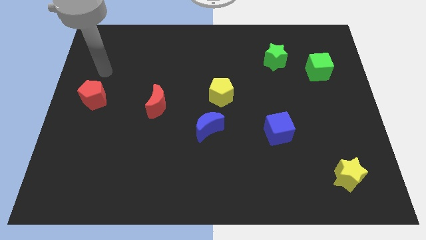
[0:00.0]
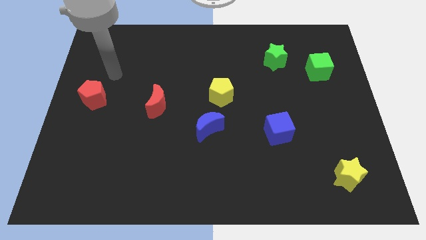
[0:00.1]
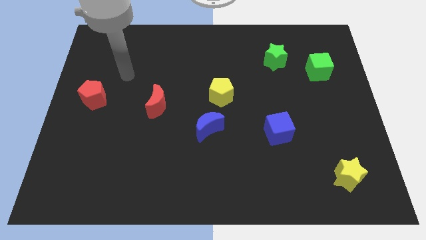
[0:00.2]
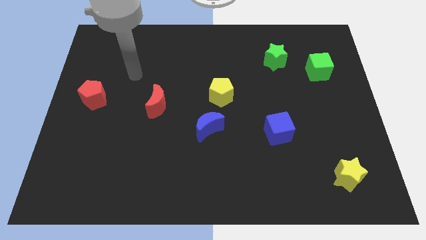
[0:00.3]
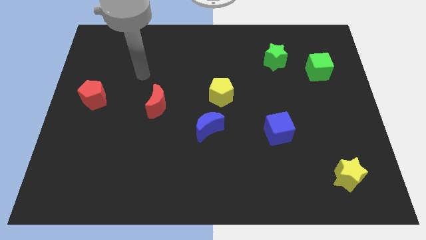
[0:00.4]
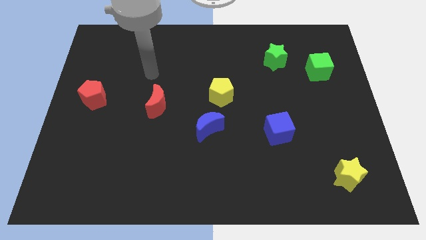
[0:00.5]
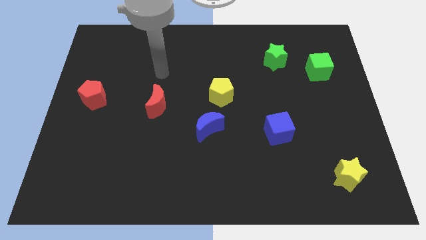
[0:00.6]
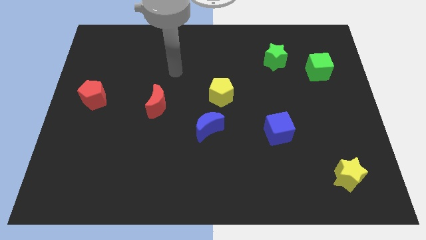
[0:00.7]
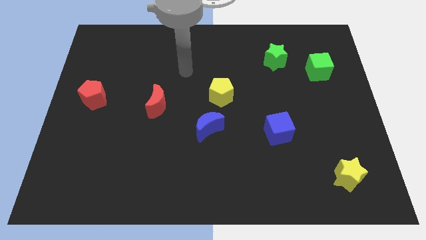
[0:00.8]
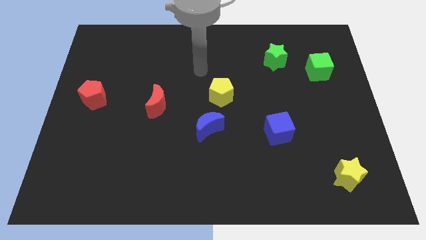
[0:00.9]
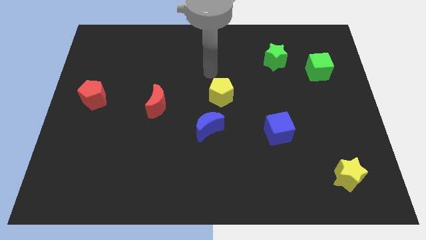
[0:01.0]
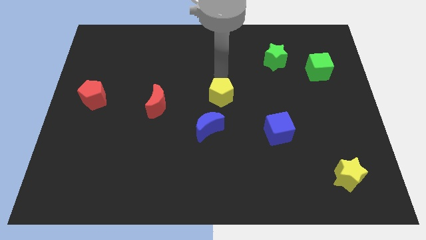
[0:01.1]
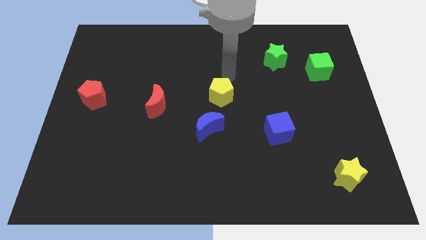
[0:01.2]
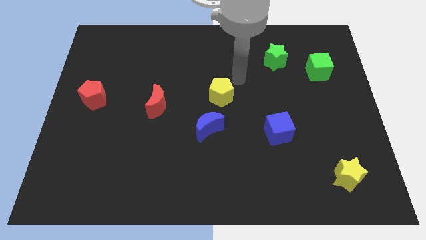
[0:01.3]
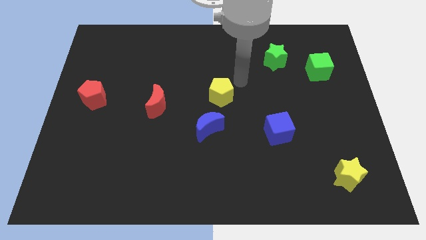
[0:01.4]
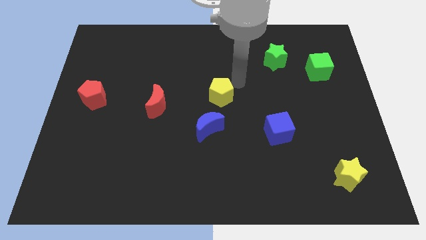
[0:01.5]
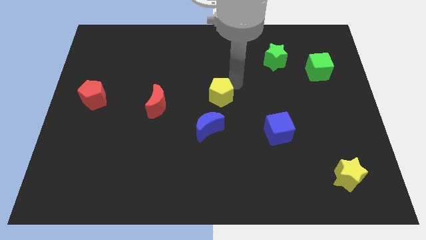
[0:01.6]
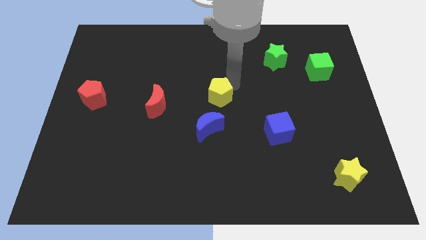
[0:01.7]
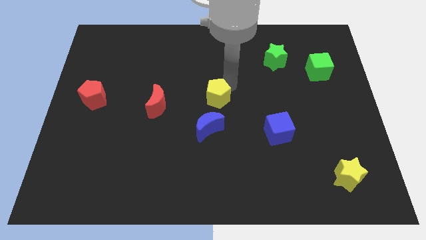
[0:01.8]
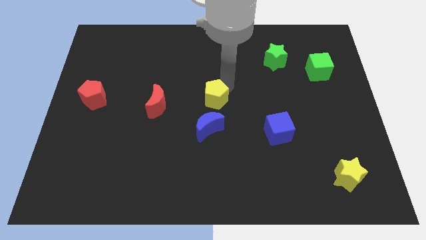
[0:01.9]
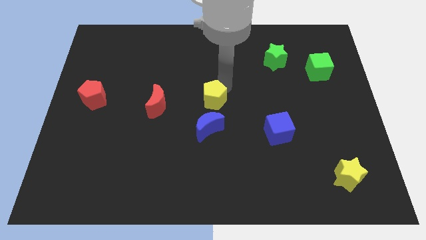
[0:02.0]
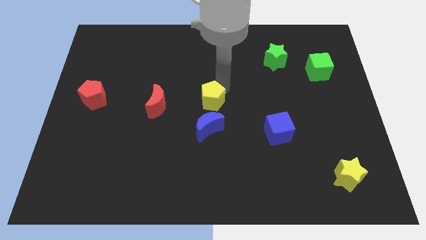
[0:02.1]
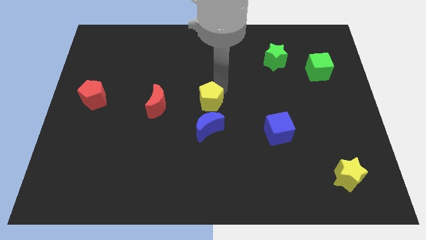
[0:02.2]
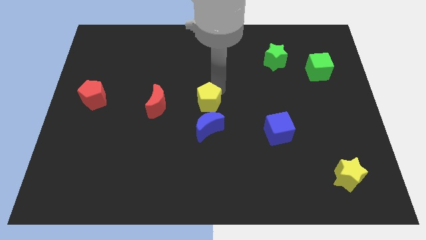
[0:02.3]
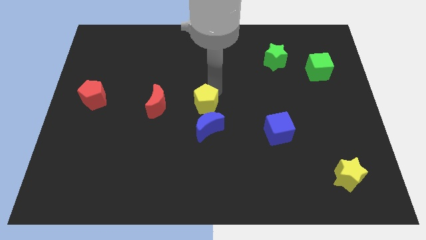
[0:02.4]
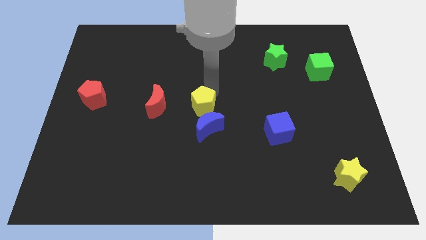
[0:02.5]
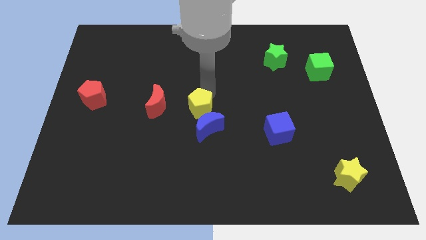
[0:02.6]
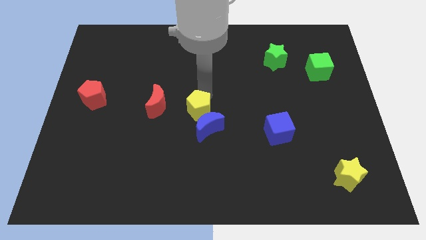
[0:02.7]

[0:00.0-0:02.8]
push the yellow pentagon slightly downwards and then left

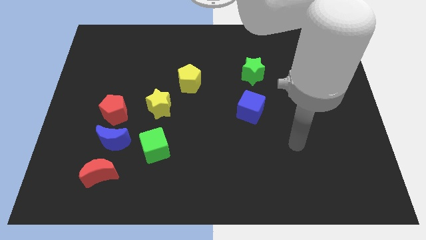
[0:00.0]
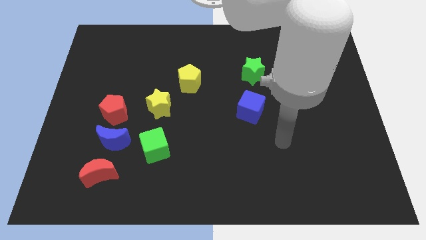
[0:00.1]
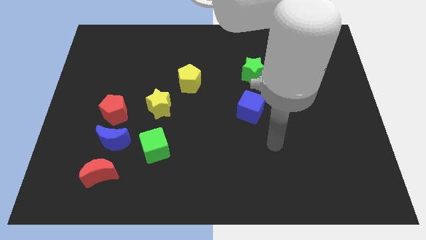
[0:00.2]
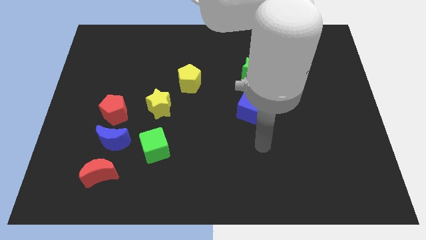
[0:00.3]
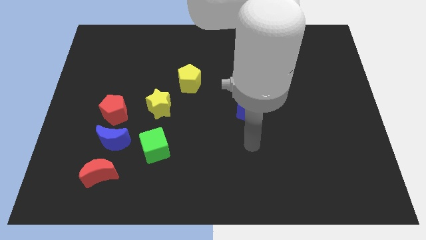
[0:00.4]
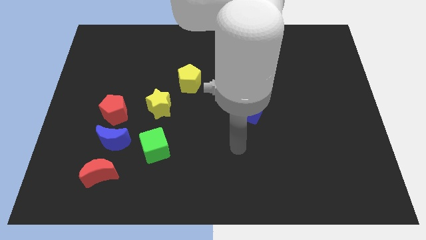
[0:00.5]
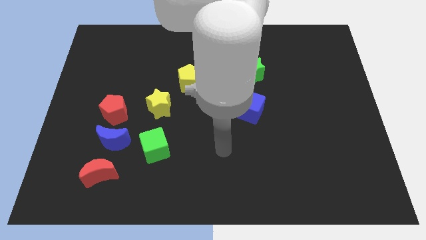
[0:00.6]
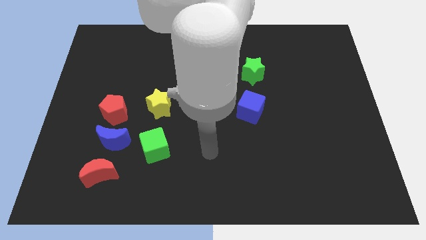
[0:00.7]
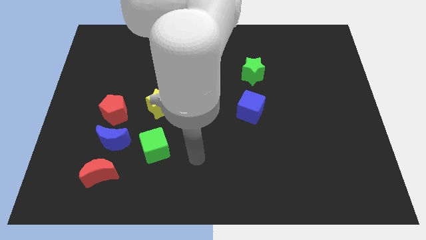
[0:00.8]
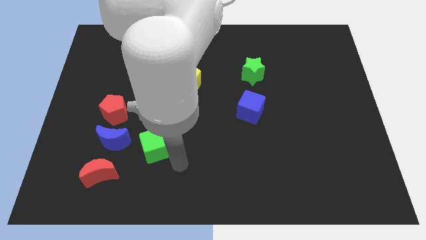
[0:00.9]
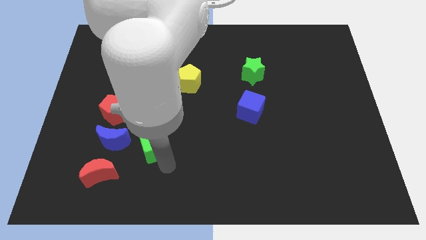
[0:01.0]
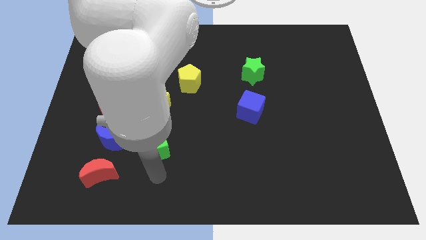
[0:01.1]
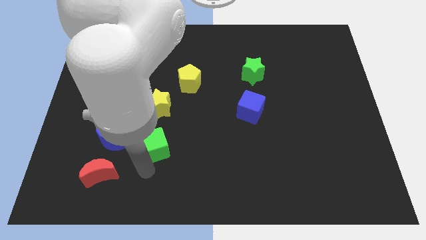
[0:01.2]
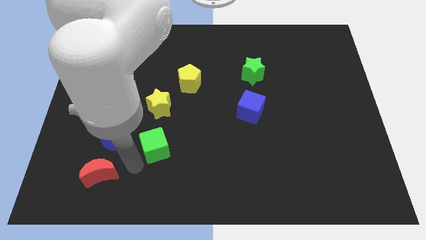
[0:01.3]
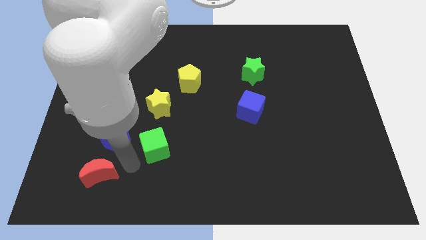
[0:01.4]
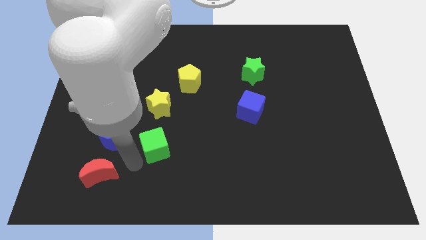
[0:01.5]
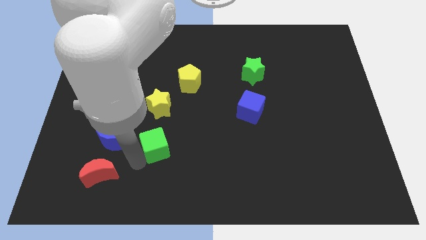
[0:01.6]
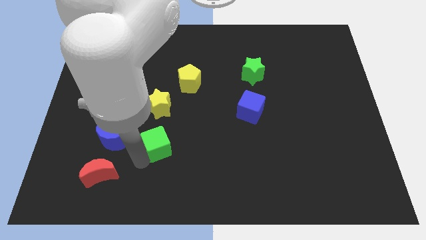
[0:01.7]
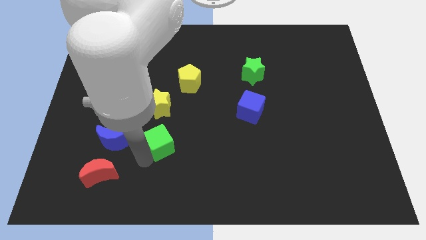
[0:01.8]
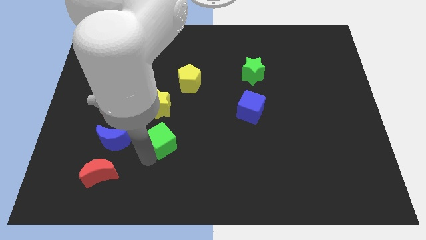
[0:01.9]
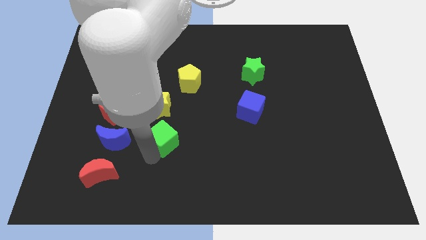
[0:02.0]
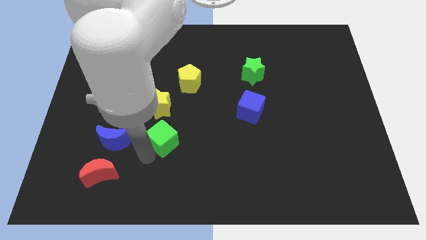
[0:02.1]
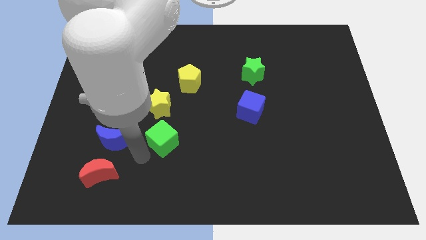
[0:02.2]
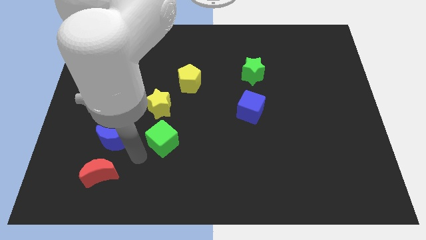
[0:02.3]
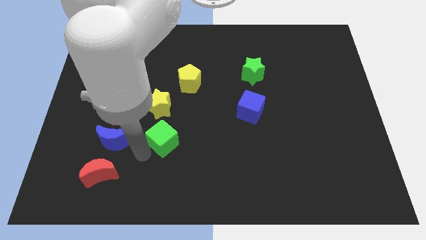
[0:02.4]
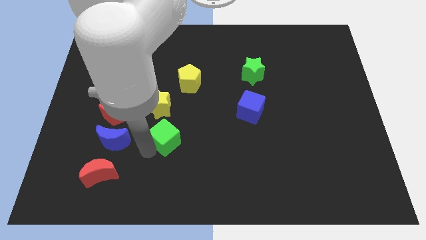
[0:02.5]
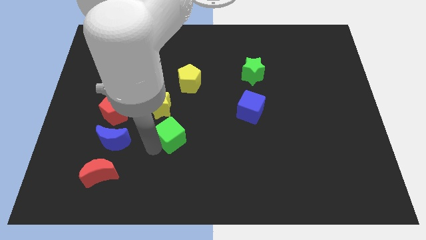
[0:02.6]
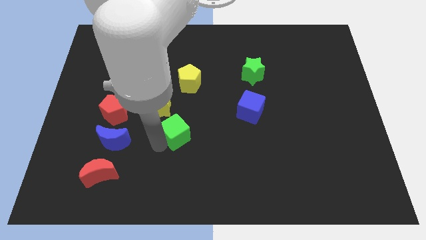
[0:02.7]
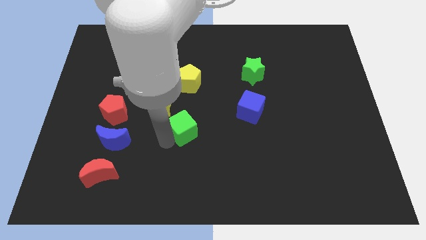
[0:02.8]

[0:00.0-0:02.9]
slightly slide the green cube upwards and to the right

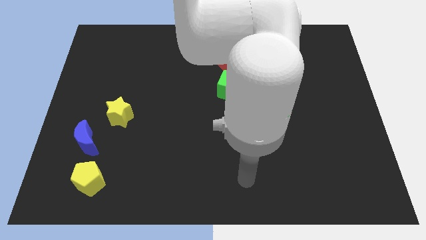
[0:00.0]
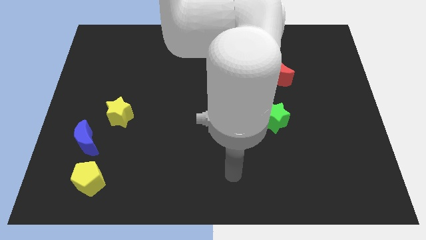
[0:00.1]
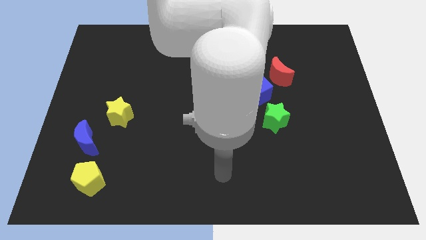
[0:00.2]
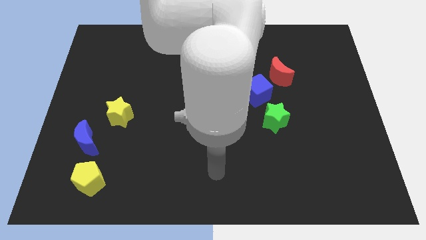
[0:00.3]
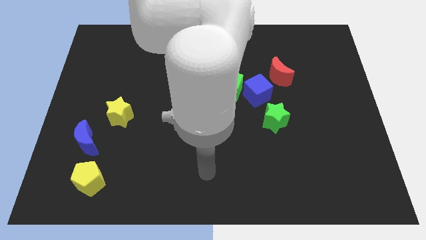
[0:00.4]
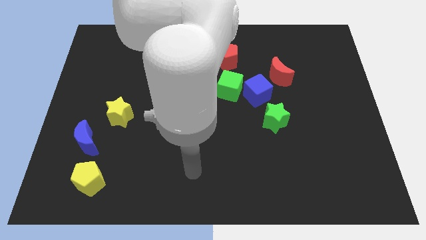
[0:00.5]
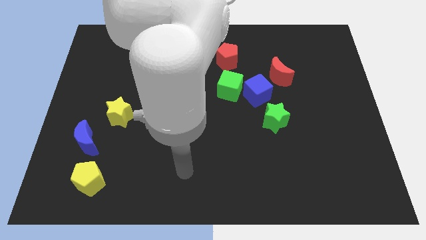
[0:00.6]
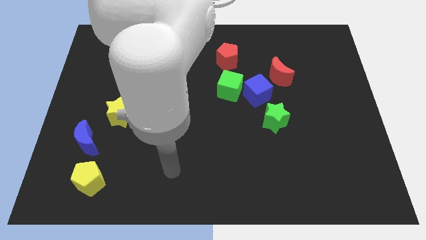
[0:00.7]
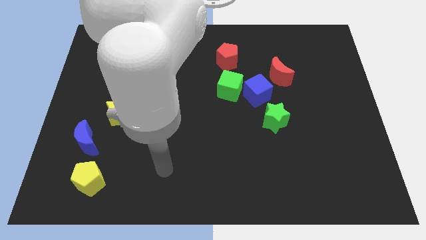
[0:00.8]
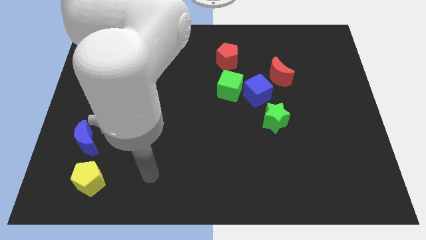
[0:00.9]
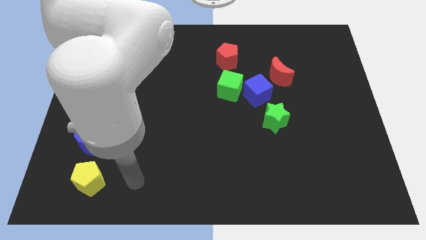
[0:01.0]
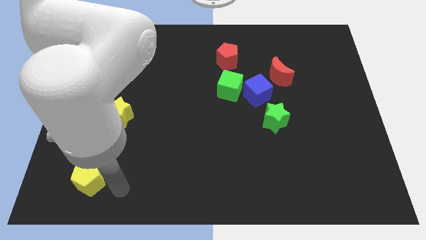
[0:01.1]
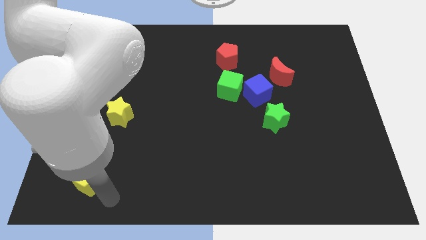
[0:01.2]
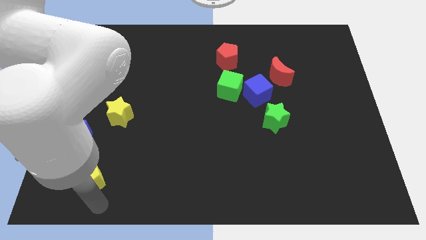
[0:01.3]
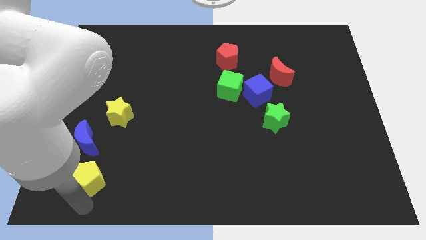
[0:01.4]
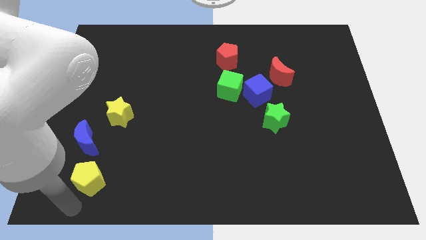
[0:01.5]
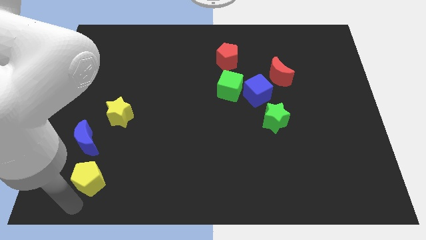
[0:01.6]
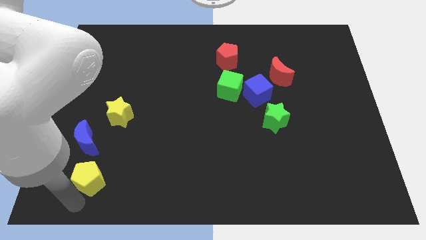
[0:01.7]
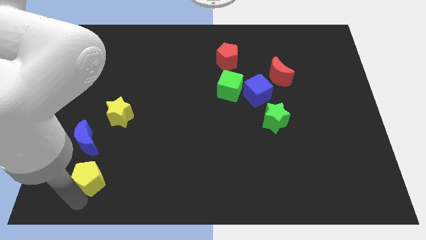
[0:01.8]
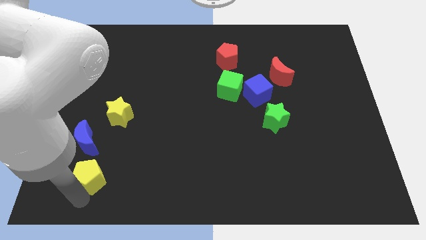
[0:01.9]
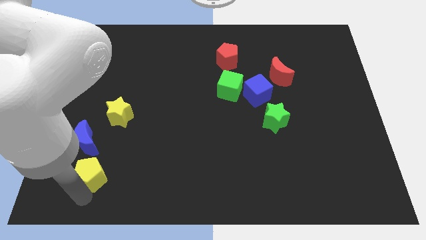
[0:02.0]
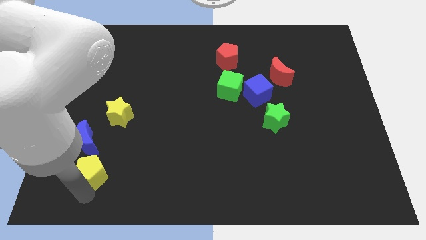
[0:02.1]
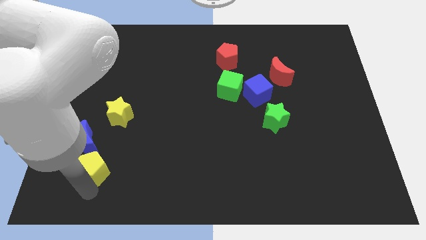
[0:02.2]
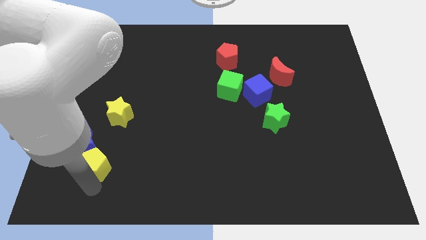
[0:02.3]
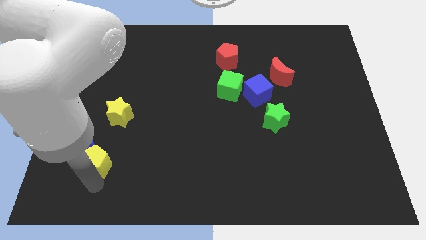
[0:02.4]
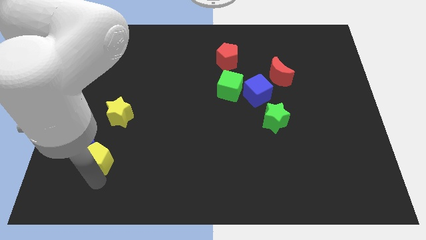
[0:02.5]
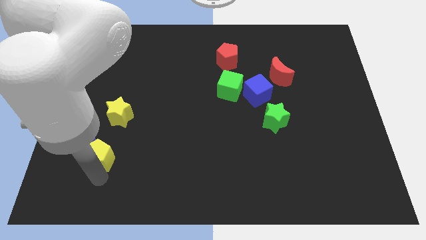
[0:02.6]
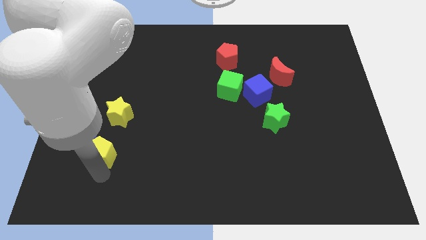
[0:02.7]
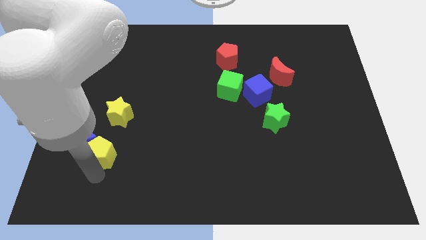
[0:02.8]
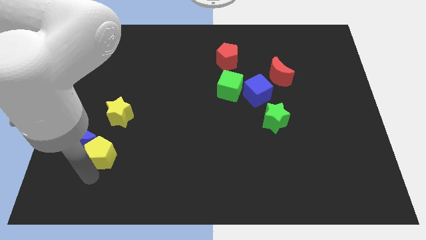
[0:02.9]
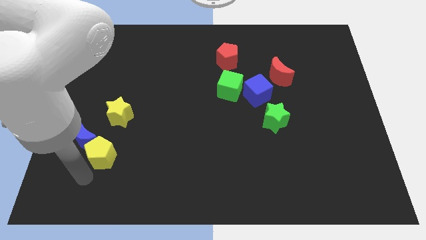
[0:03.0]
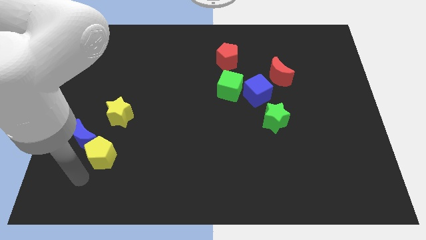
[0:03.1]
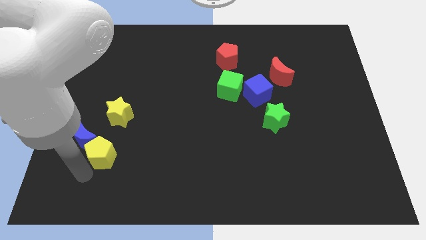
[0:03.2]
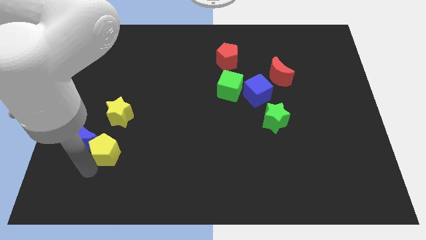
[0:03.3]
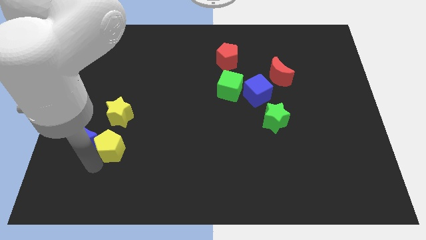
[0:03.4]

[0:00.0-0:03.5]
push the yellow pentagon upwards a little bit
